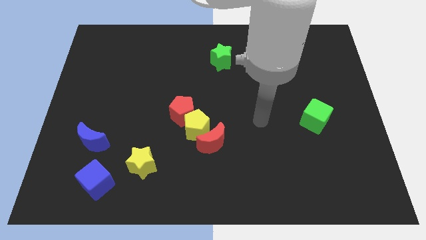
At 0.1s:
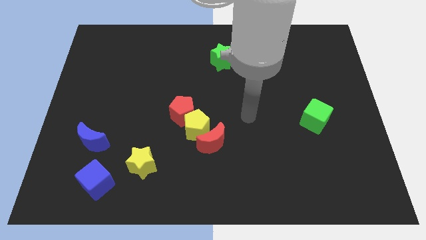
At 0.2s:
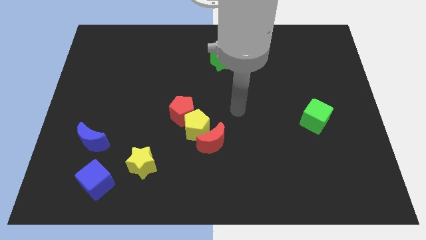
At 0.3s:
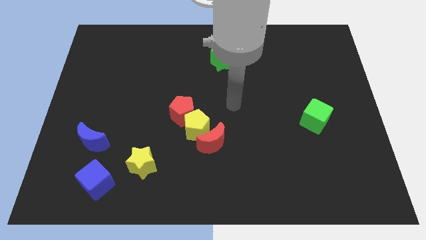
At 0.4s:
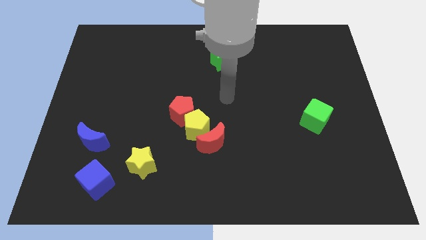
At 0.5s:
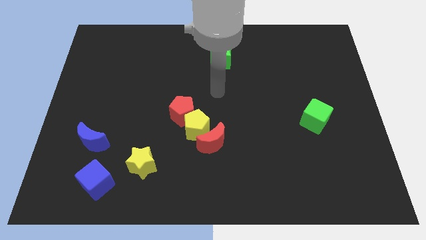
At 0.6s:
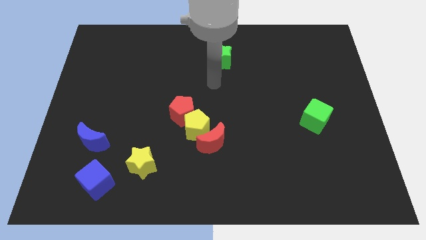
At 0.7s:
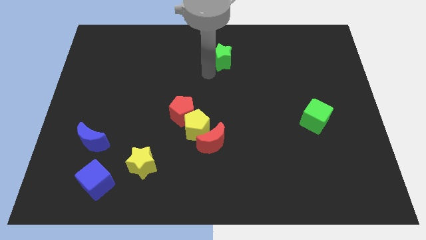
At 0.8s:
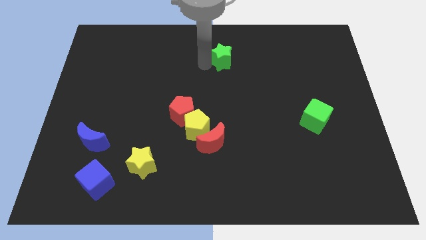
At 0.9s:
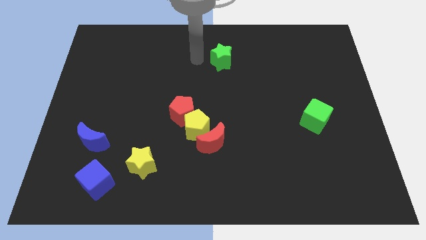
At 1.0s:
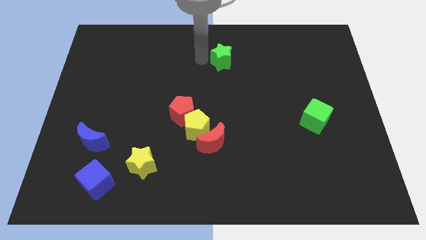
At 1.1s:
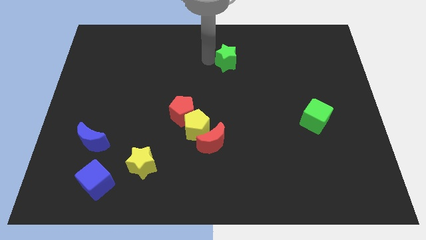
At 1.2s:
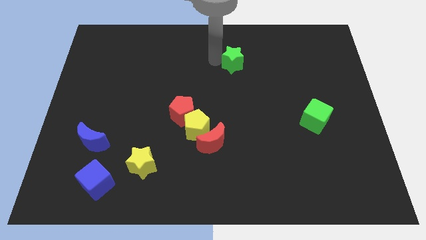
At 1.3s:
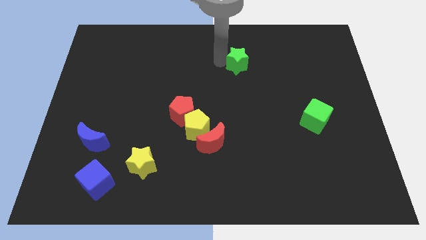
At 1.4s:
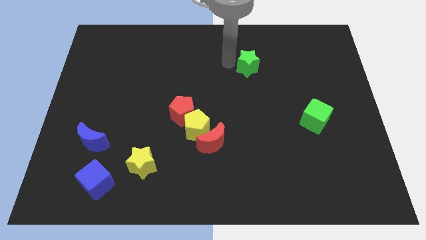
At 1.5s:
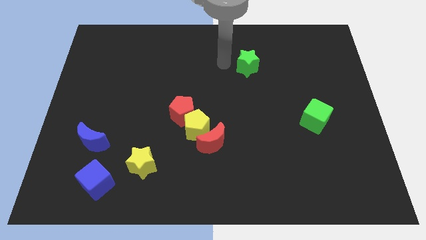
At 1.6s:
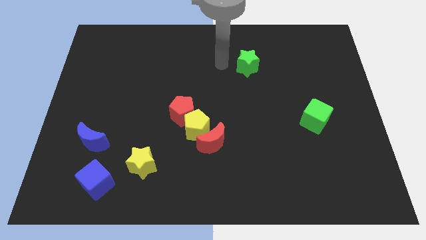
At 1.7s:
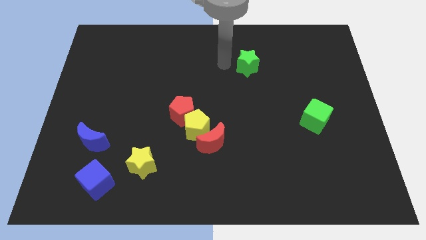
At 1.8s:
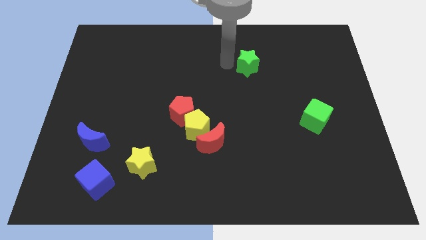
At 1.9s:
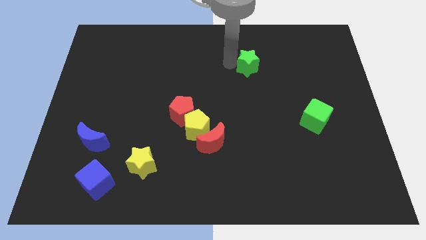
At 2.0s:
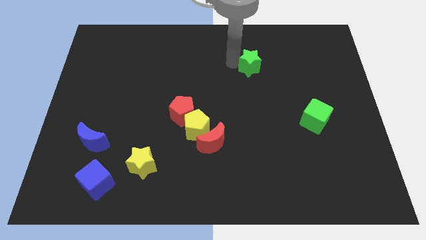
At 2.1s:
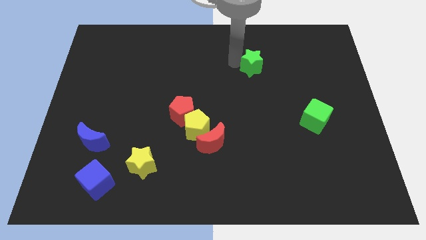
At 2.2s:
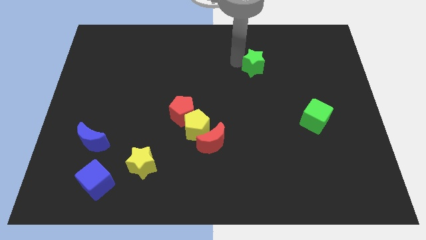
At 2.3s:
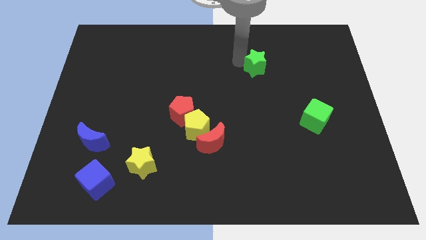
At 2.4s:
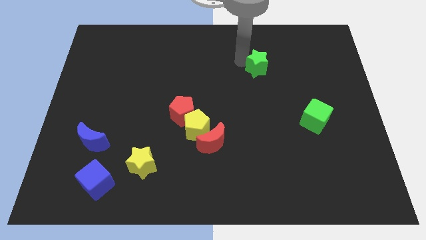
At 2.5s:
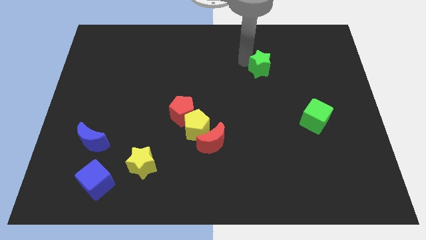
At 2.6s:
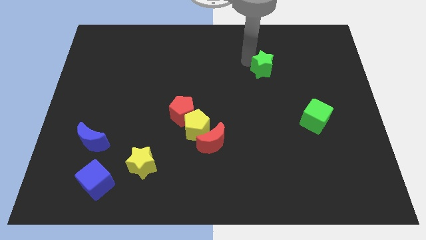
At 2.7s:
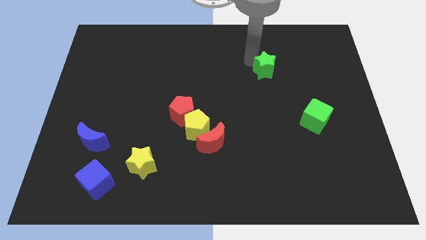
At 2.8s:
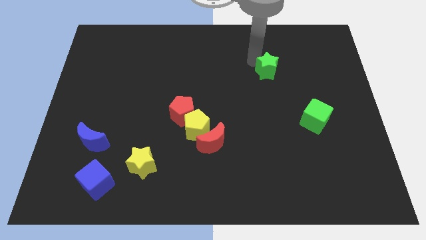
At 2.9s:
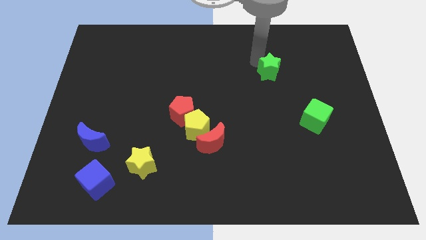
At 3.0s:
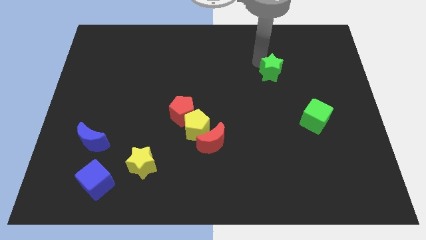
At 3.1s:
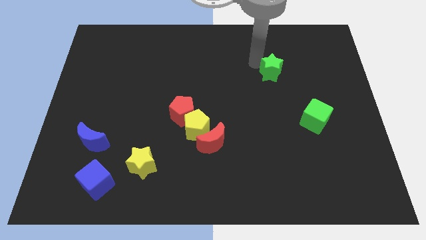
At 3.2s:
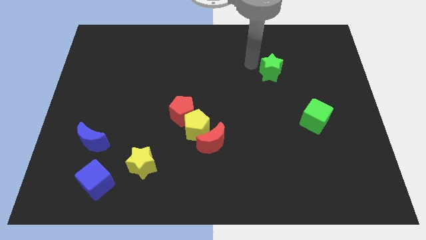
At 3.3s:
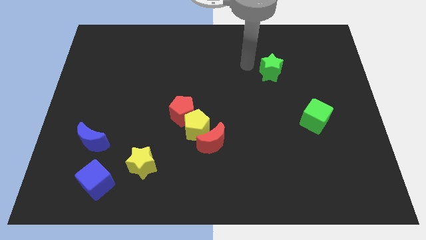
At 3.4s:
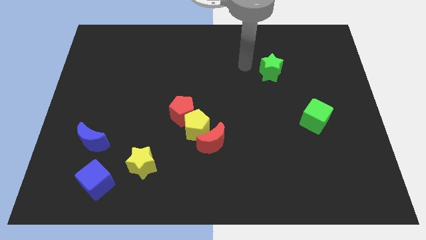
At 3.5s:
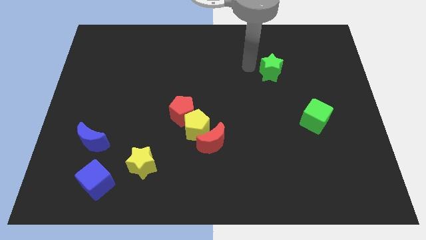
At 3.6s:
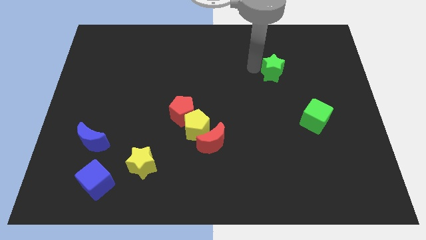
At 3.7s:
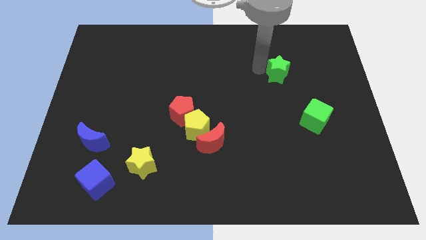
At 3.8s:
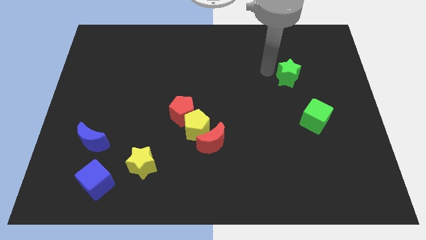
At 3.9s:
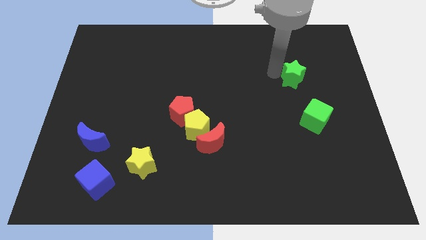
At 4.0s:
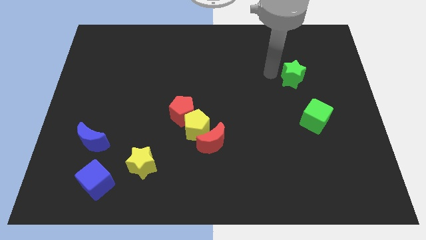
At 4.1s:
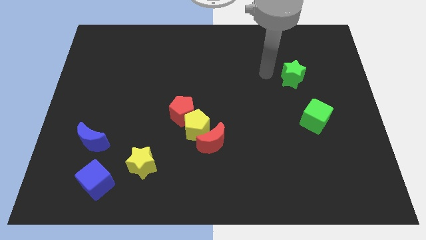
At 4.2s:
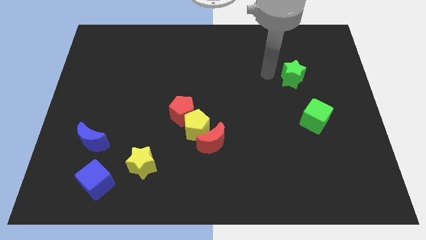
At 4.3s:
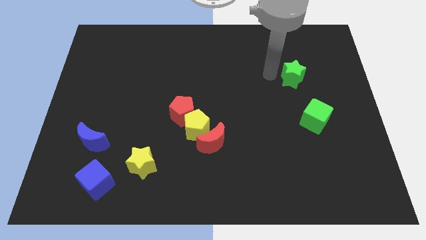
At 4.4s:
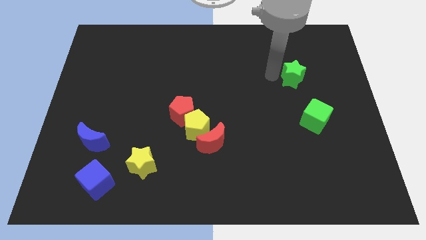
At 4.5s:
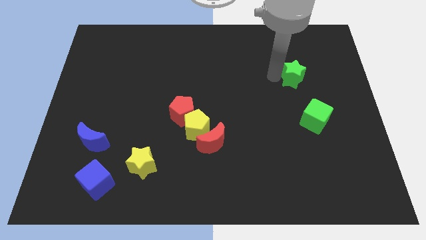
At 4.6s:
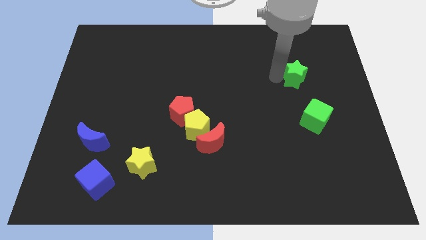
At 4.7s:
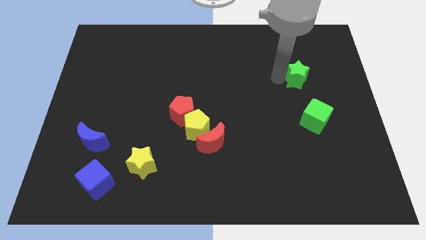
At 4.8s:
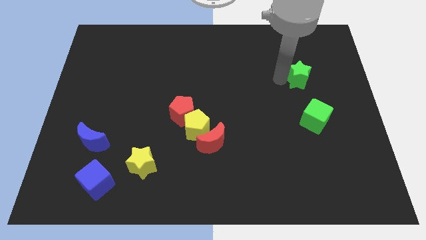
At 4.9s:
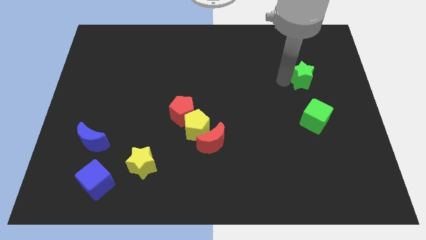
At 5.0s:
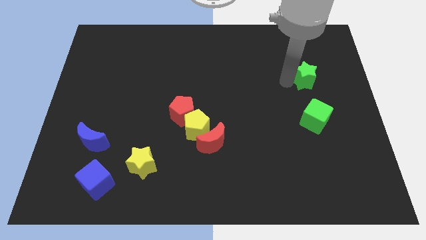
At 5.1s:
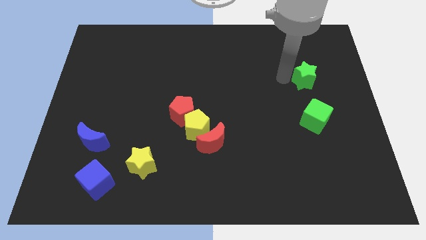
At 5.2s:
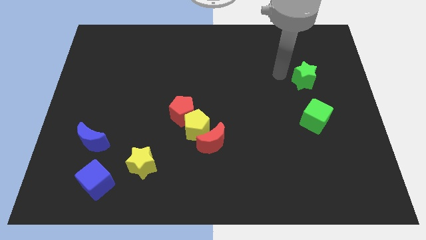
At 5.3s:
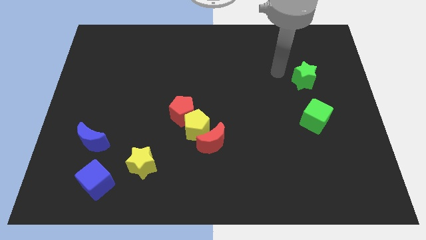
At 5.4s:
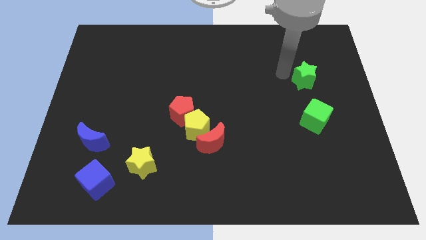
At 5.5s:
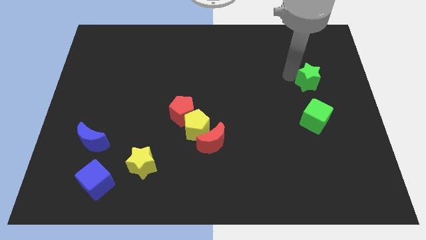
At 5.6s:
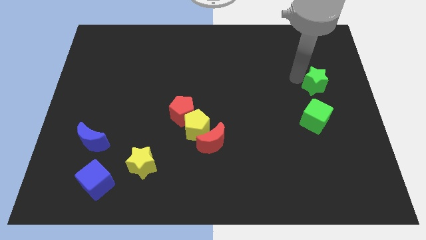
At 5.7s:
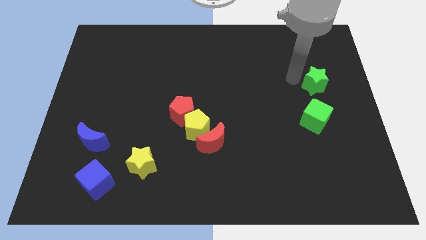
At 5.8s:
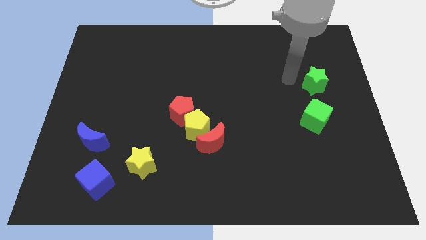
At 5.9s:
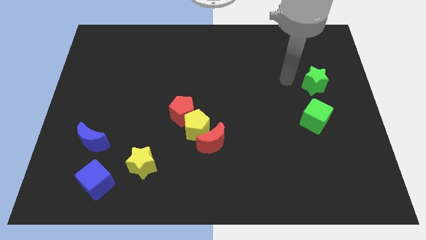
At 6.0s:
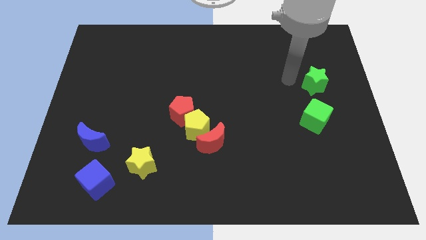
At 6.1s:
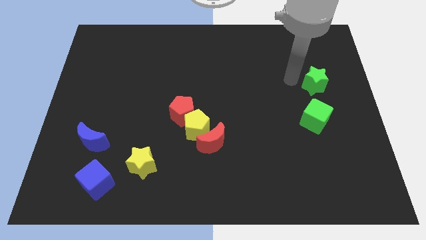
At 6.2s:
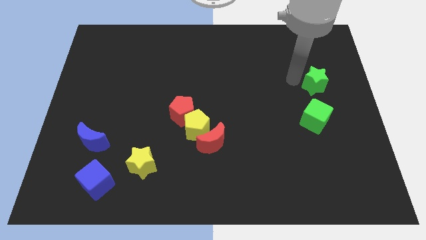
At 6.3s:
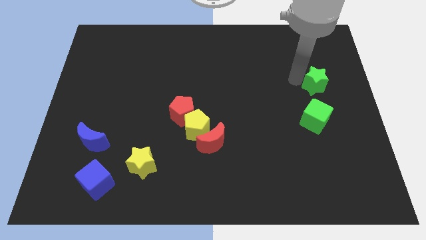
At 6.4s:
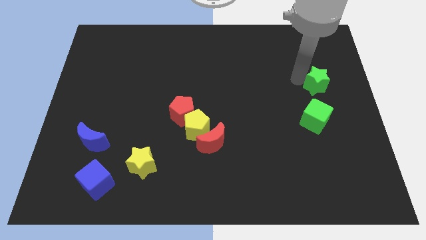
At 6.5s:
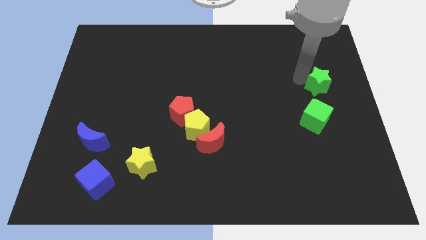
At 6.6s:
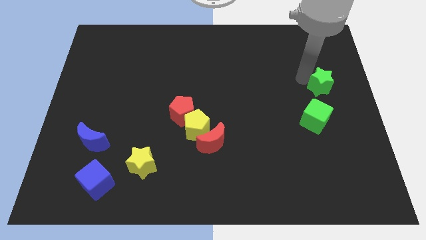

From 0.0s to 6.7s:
push the green star to the center right
